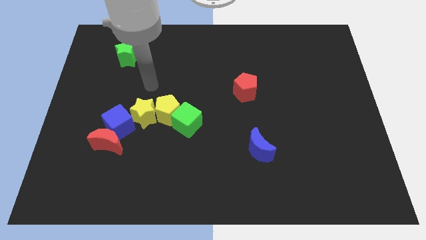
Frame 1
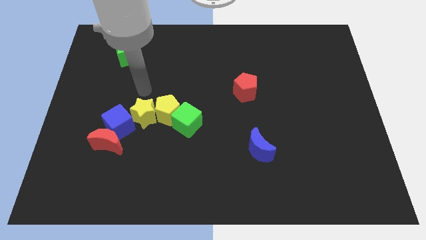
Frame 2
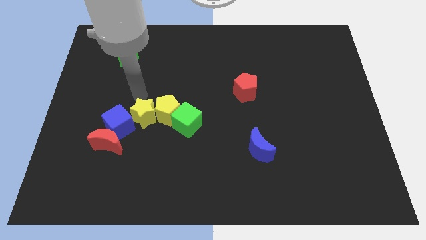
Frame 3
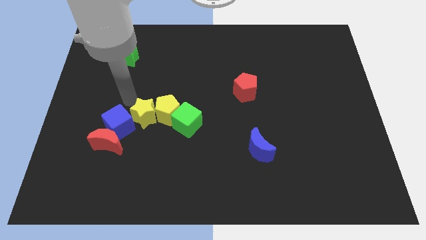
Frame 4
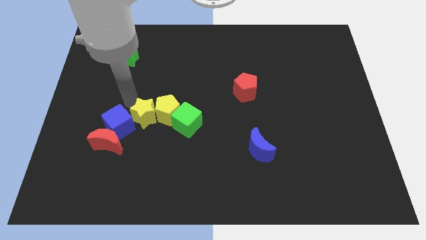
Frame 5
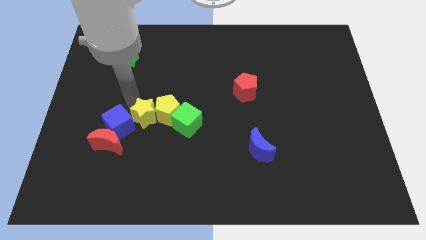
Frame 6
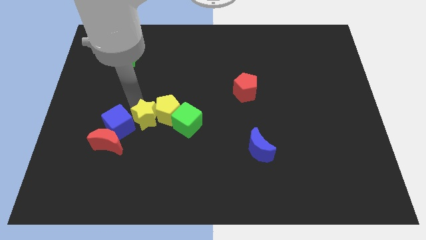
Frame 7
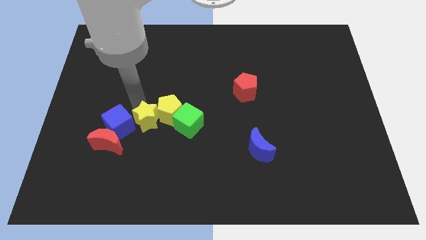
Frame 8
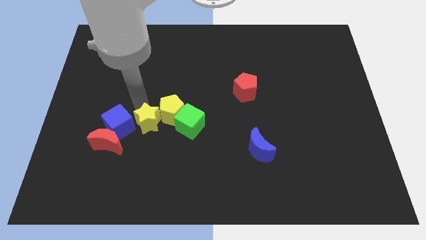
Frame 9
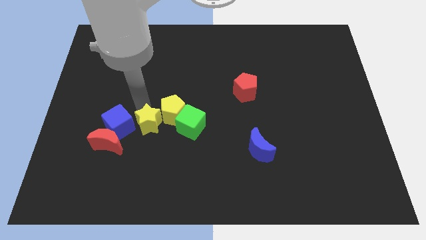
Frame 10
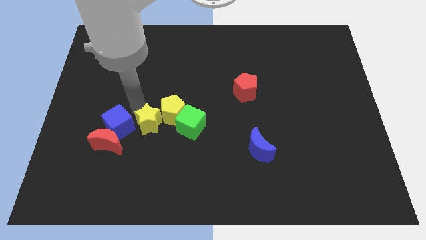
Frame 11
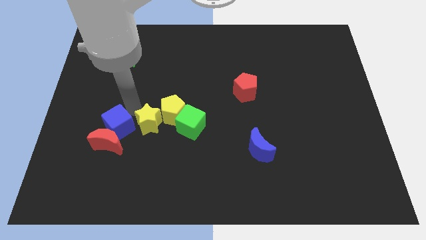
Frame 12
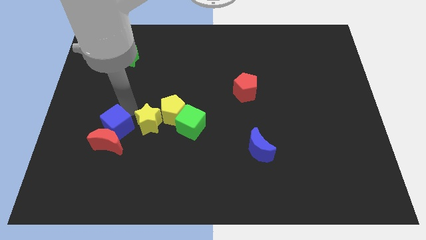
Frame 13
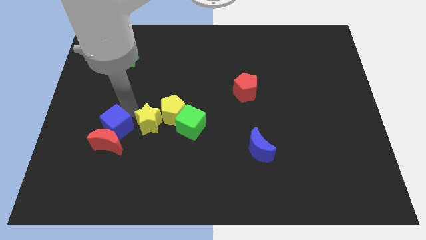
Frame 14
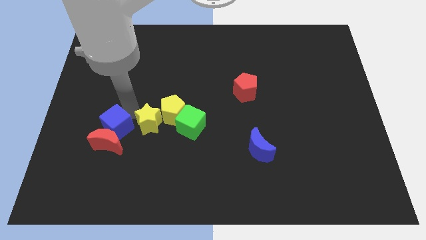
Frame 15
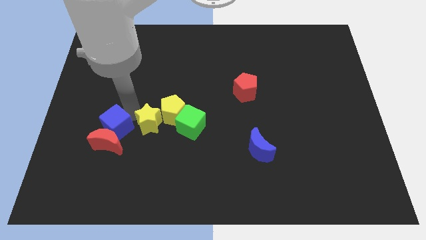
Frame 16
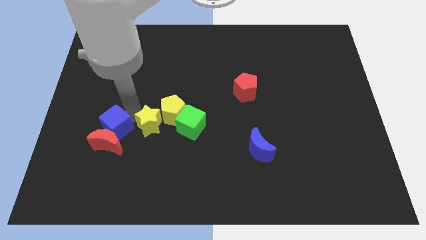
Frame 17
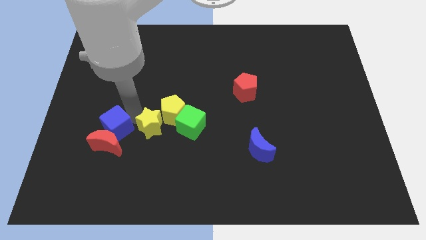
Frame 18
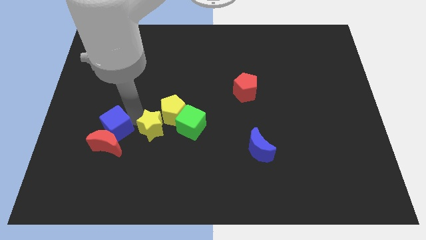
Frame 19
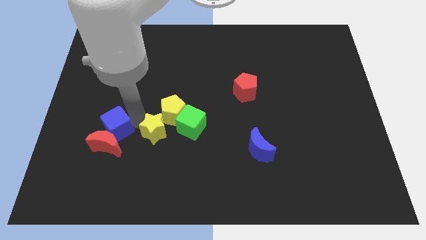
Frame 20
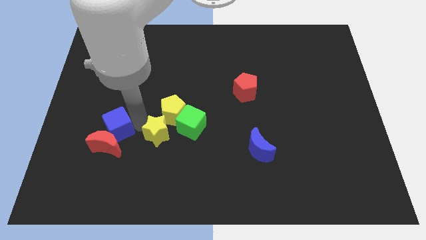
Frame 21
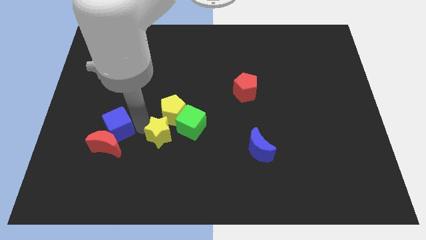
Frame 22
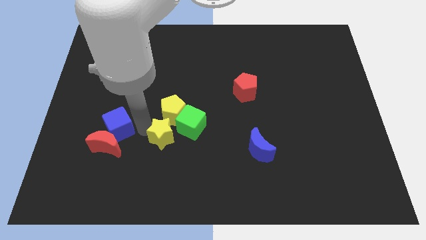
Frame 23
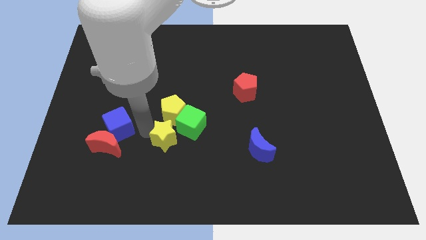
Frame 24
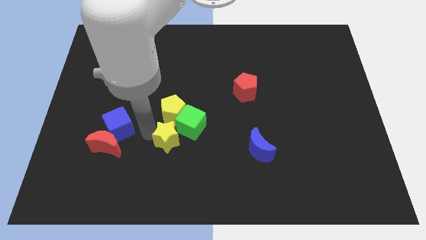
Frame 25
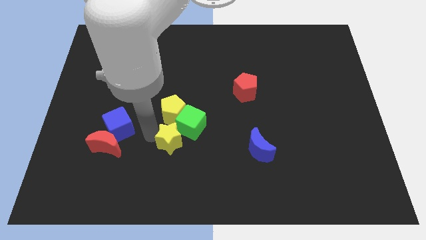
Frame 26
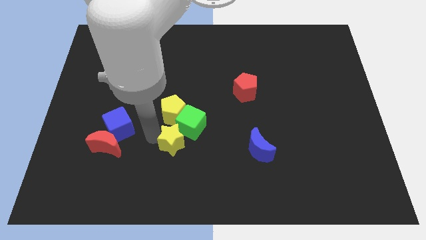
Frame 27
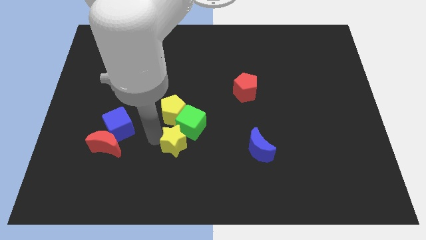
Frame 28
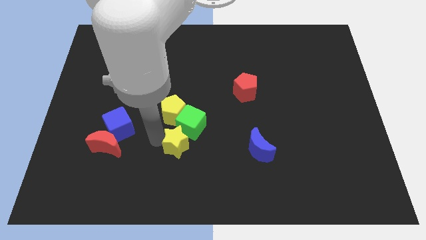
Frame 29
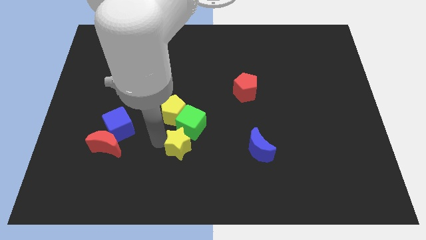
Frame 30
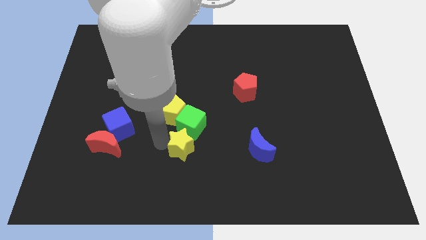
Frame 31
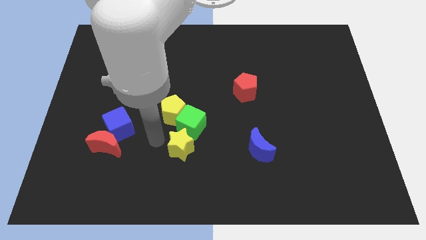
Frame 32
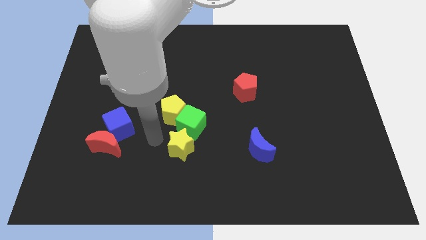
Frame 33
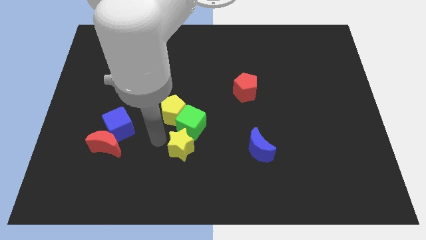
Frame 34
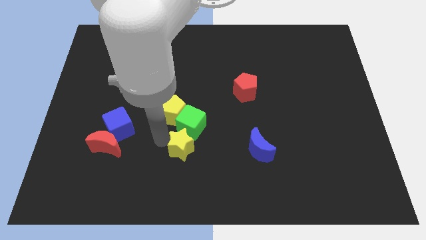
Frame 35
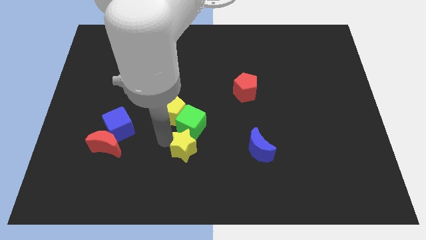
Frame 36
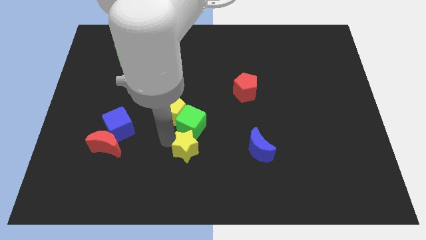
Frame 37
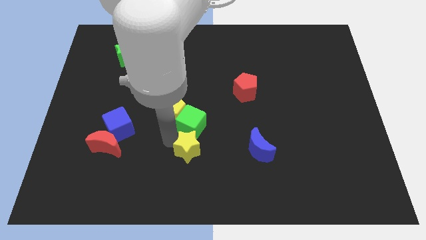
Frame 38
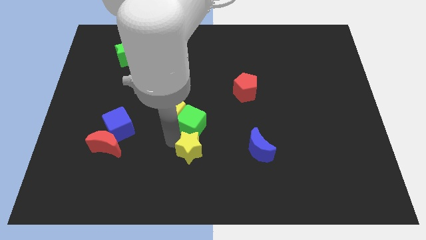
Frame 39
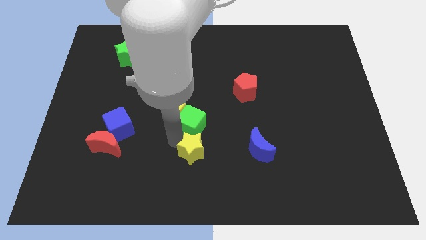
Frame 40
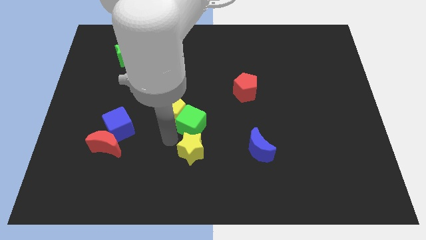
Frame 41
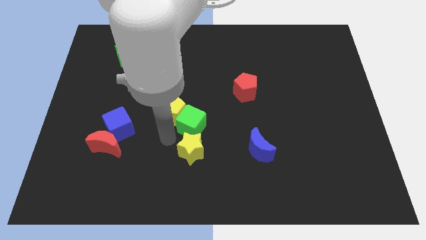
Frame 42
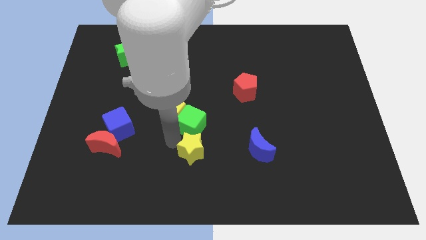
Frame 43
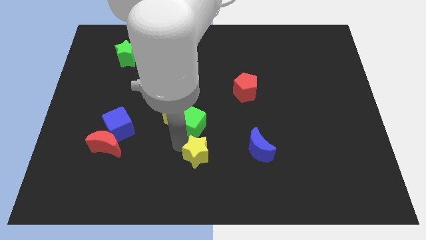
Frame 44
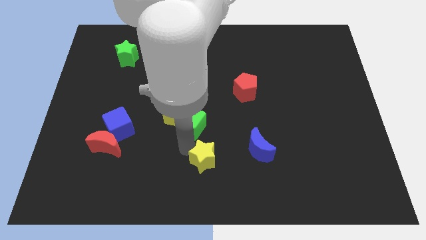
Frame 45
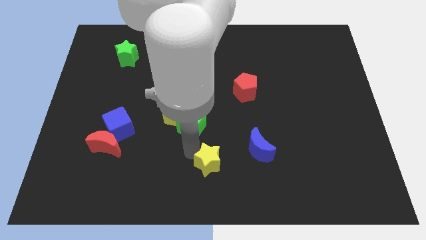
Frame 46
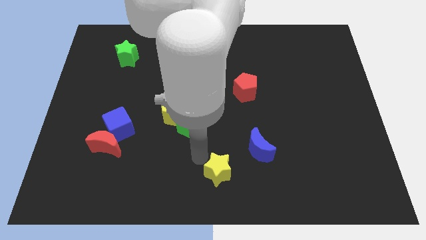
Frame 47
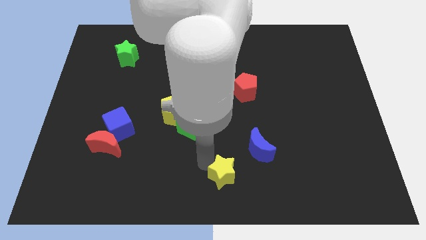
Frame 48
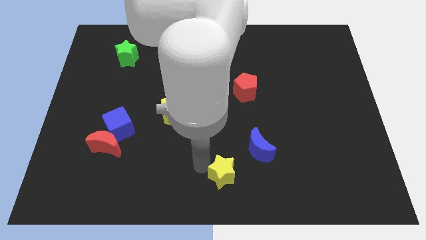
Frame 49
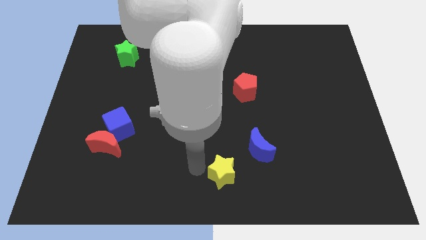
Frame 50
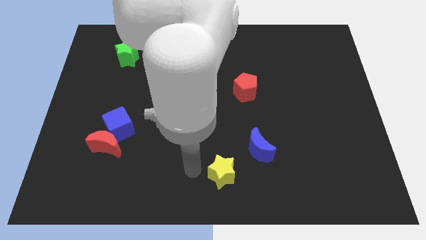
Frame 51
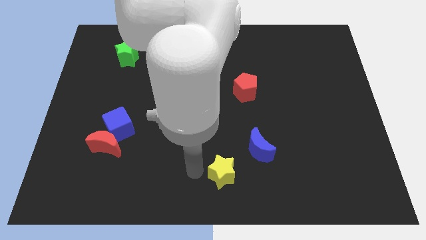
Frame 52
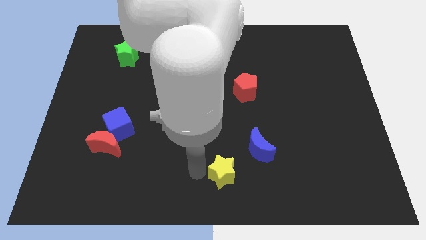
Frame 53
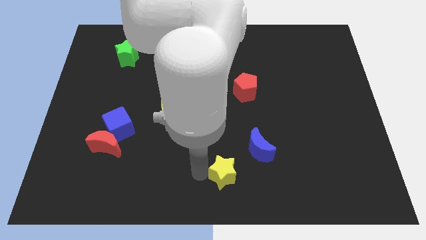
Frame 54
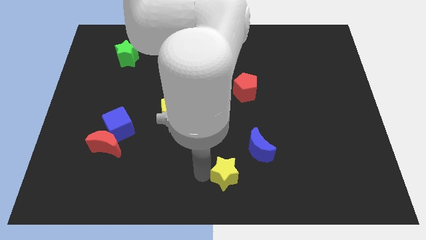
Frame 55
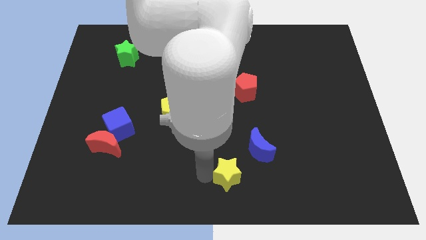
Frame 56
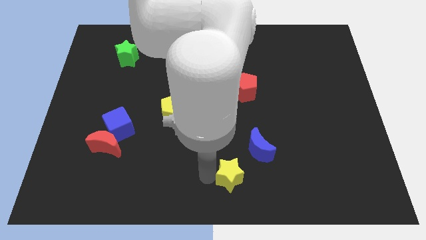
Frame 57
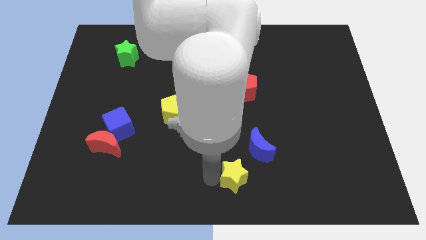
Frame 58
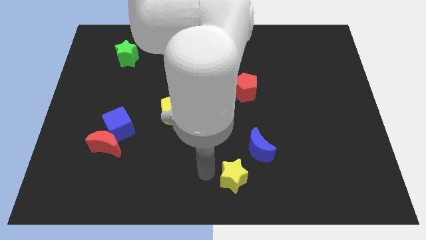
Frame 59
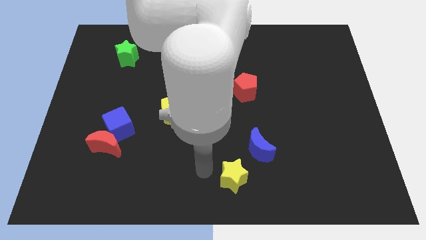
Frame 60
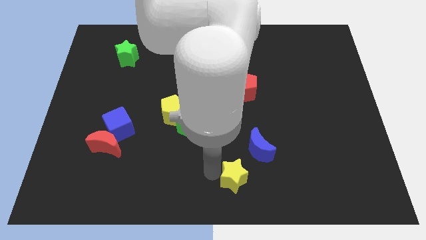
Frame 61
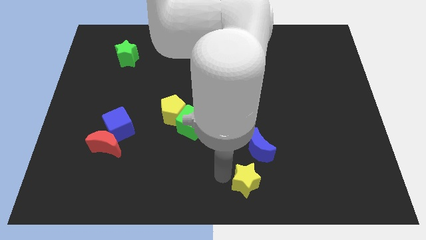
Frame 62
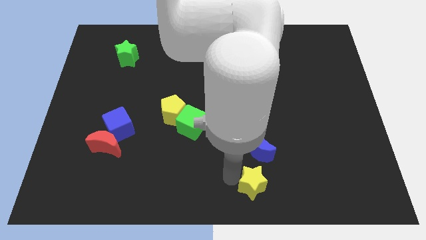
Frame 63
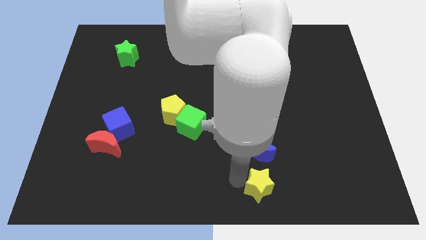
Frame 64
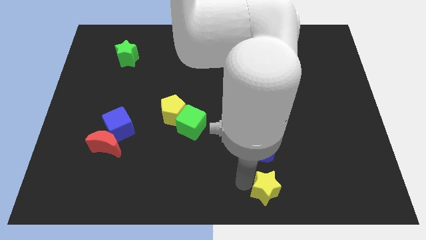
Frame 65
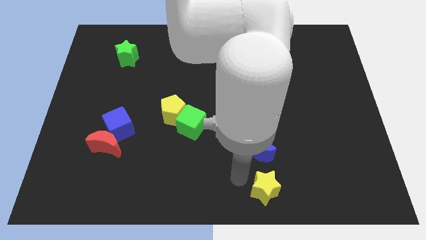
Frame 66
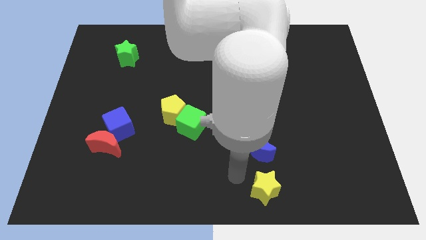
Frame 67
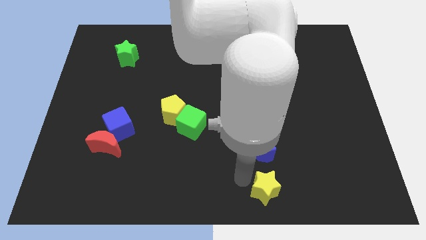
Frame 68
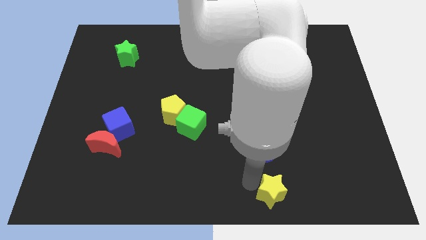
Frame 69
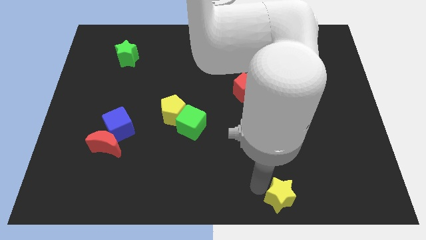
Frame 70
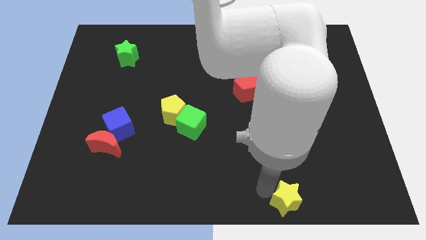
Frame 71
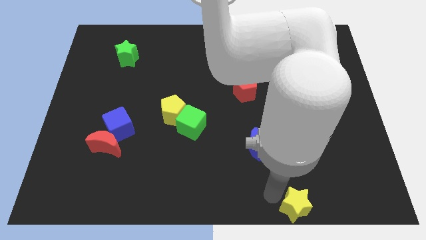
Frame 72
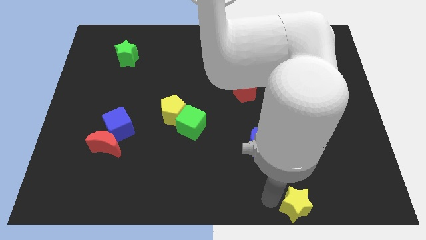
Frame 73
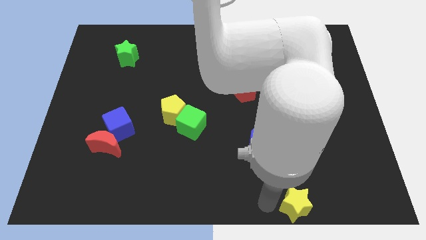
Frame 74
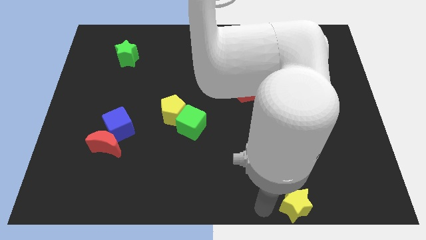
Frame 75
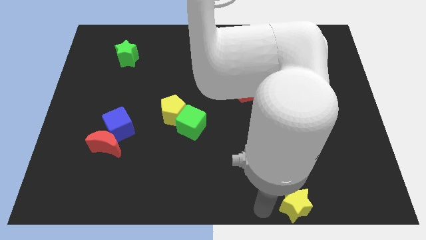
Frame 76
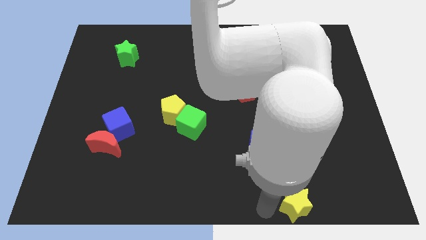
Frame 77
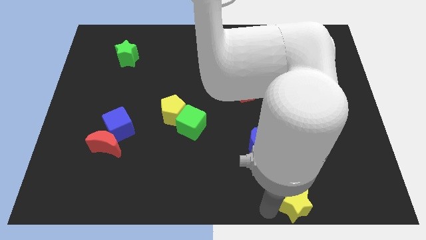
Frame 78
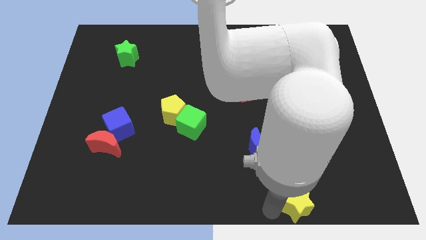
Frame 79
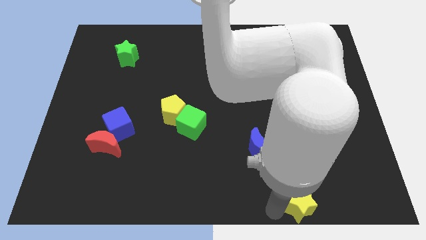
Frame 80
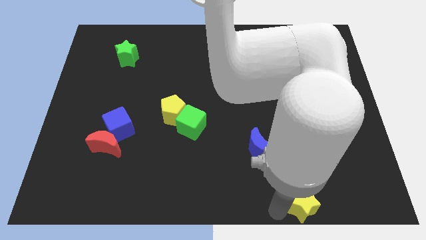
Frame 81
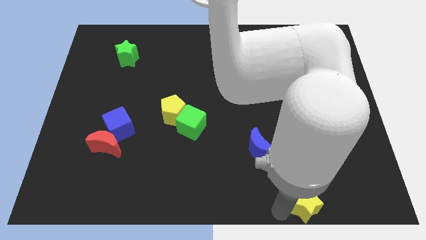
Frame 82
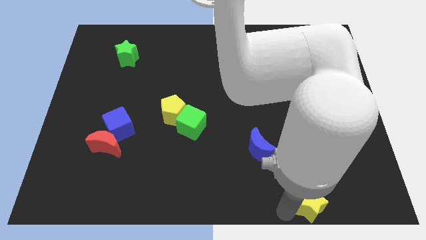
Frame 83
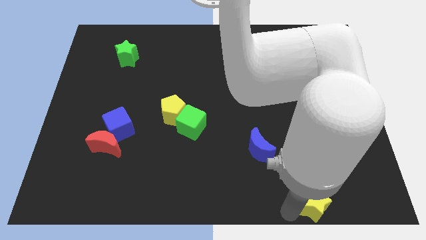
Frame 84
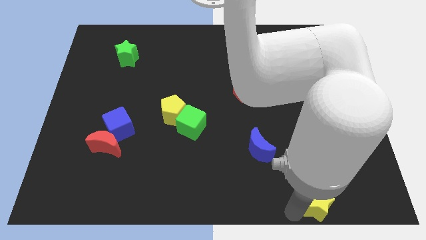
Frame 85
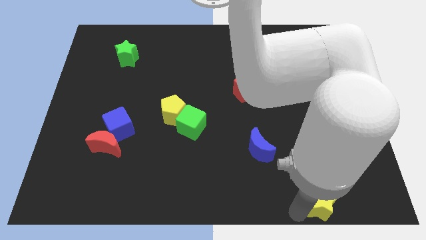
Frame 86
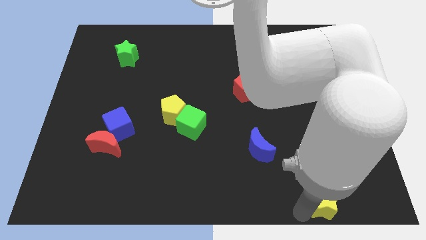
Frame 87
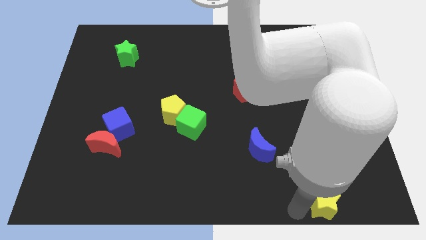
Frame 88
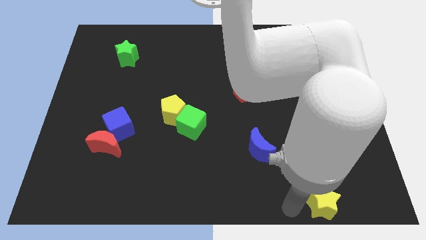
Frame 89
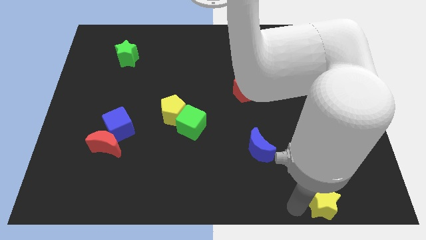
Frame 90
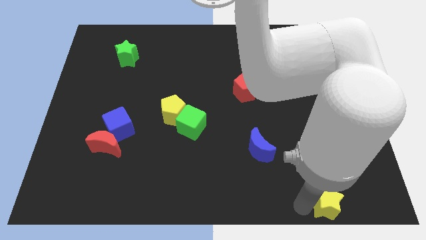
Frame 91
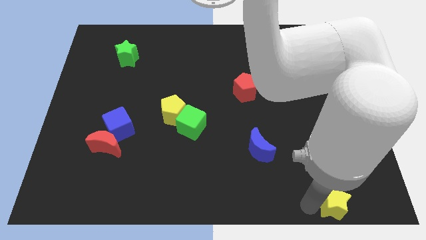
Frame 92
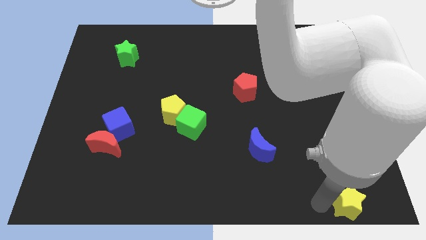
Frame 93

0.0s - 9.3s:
slide the yellow star to the bottom right of the board
